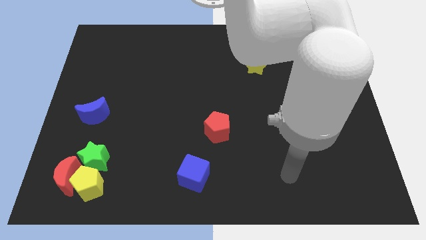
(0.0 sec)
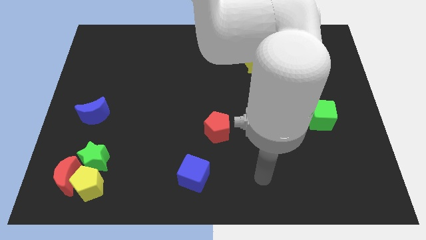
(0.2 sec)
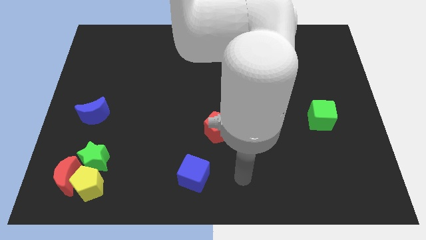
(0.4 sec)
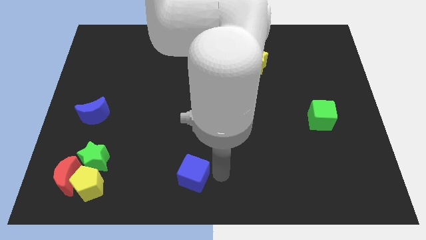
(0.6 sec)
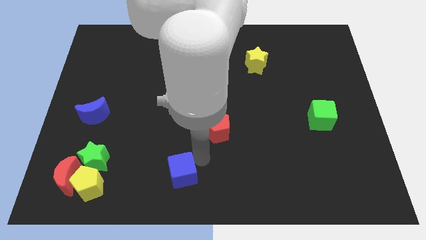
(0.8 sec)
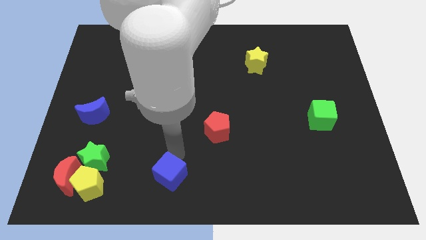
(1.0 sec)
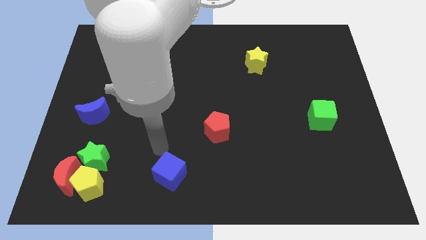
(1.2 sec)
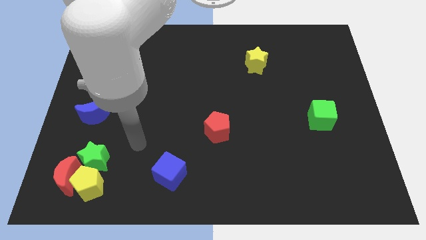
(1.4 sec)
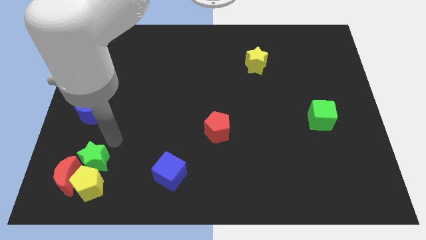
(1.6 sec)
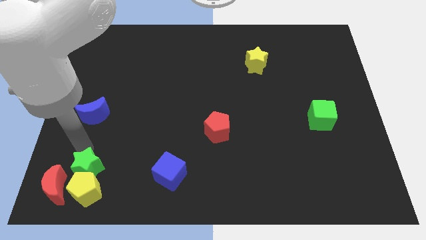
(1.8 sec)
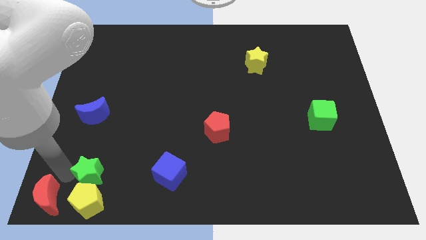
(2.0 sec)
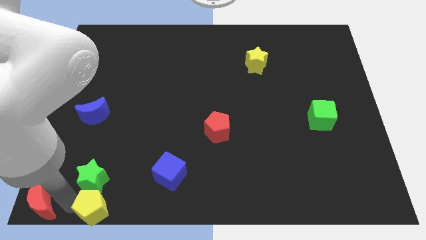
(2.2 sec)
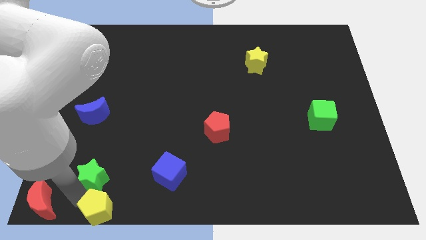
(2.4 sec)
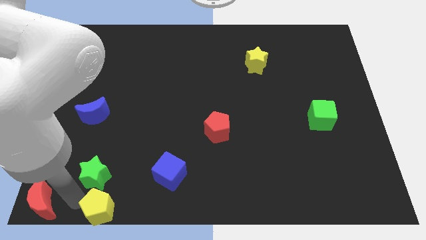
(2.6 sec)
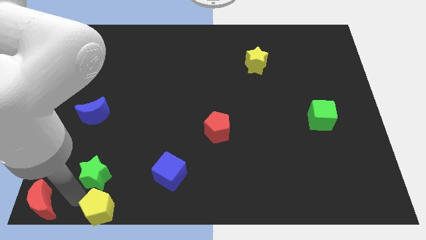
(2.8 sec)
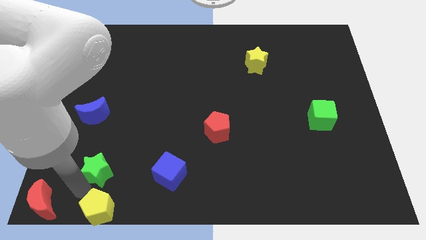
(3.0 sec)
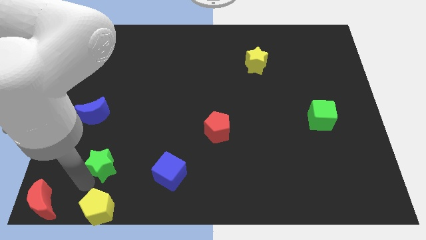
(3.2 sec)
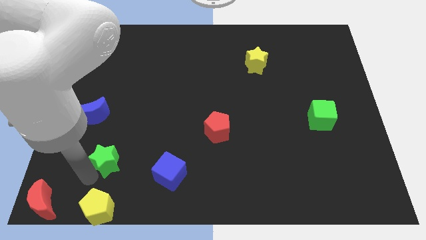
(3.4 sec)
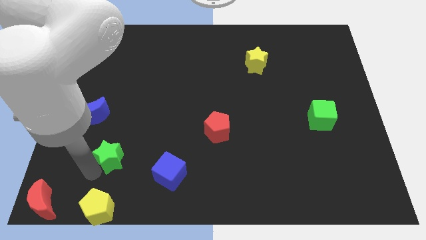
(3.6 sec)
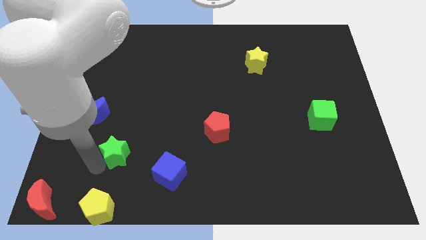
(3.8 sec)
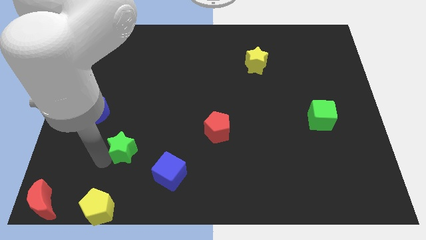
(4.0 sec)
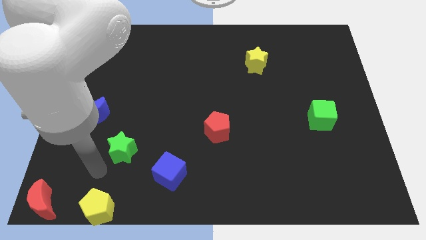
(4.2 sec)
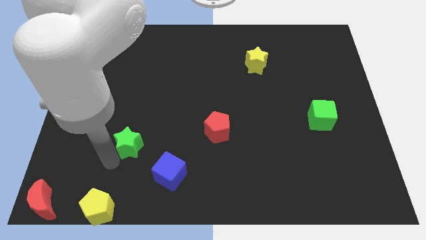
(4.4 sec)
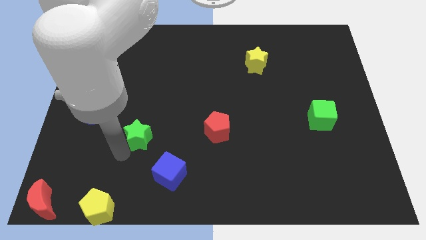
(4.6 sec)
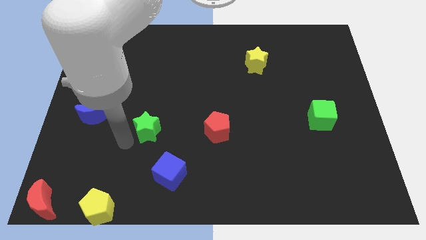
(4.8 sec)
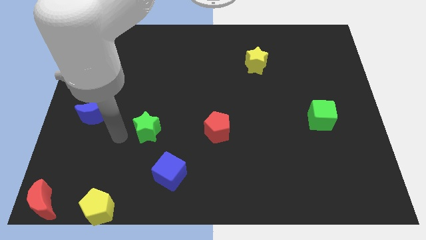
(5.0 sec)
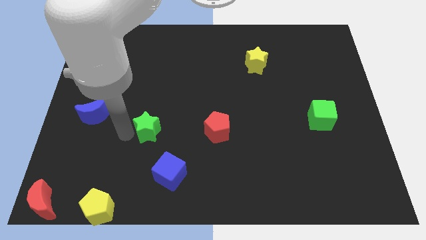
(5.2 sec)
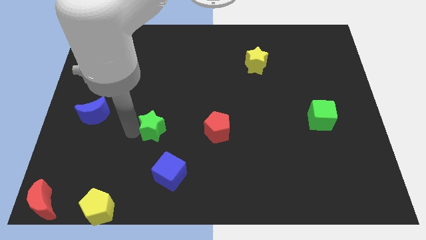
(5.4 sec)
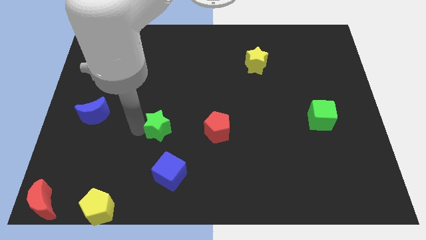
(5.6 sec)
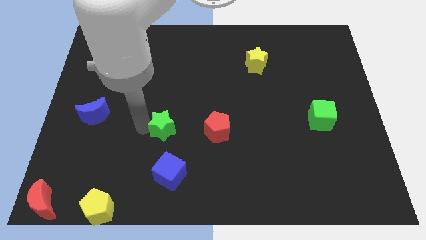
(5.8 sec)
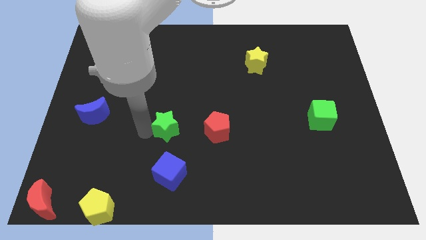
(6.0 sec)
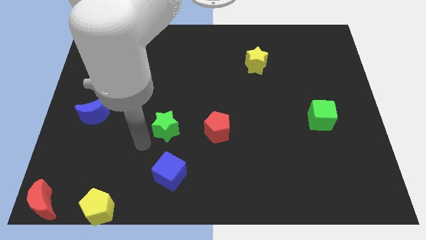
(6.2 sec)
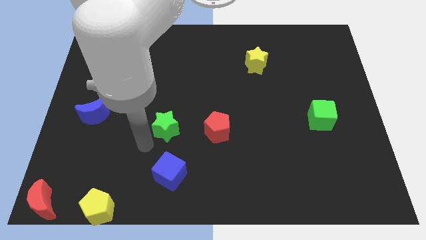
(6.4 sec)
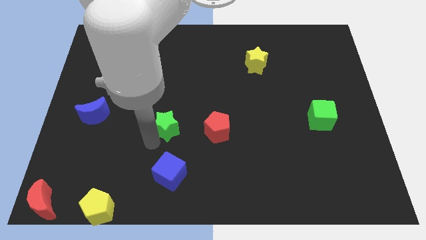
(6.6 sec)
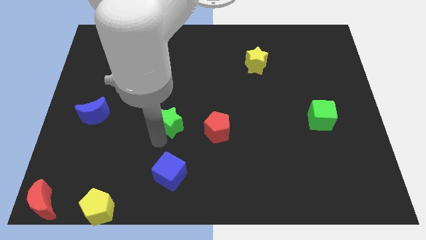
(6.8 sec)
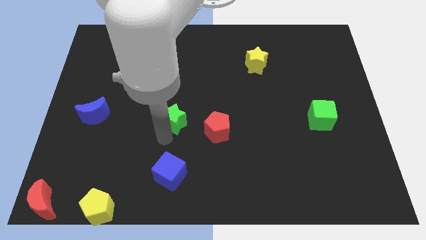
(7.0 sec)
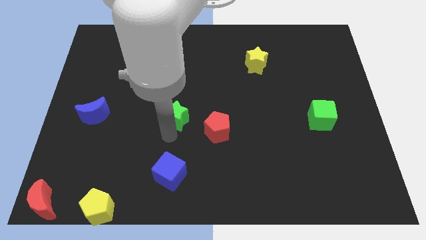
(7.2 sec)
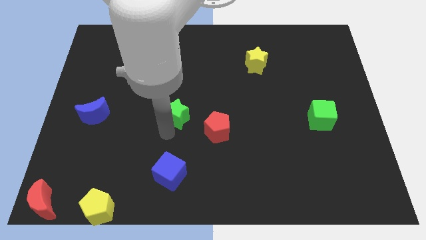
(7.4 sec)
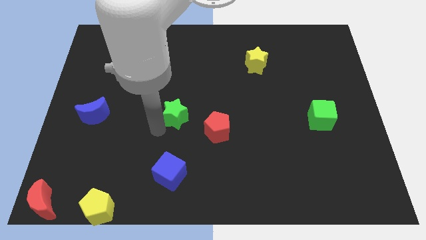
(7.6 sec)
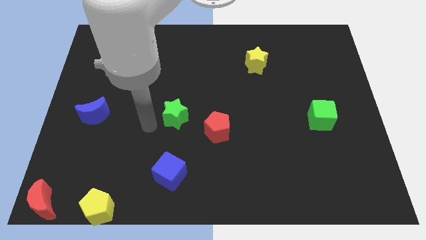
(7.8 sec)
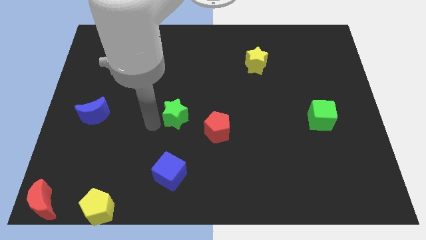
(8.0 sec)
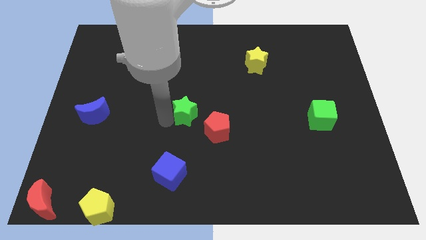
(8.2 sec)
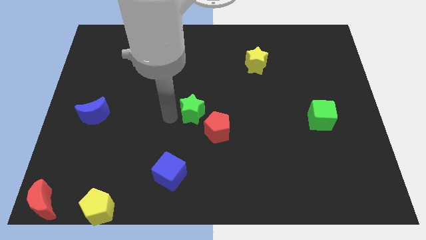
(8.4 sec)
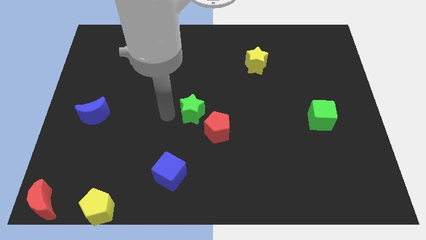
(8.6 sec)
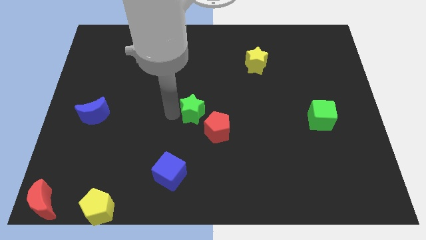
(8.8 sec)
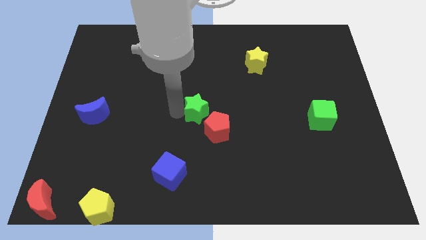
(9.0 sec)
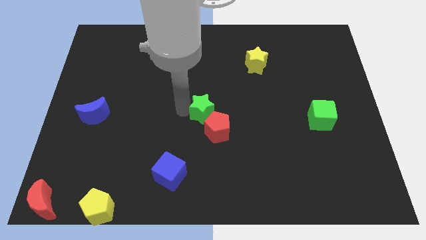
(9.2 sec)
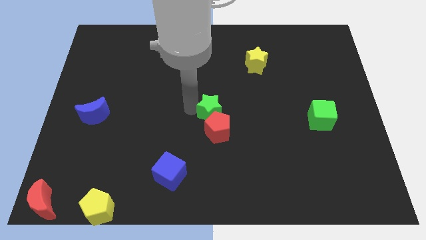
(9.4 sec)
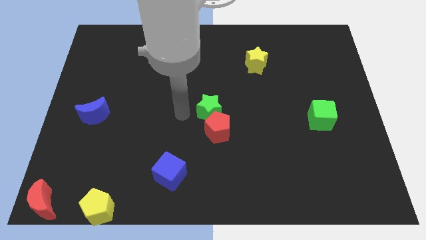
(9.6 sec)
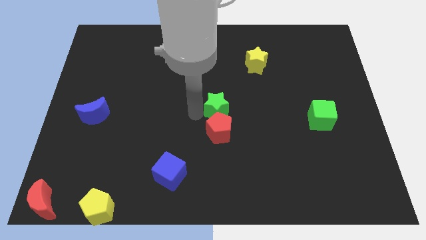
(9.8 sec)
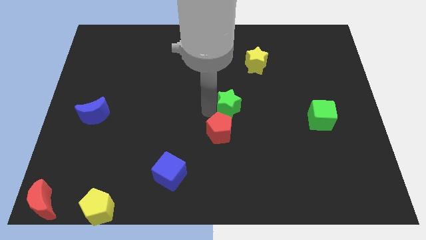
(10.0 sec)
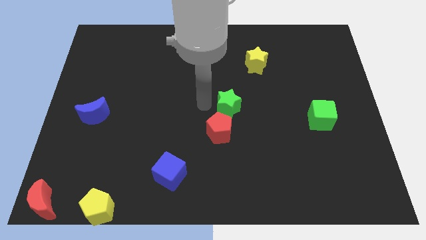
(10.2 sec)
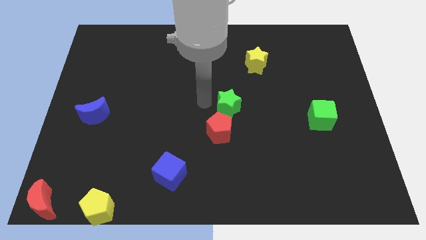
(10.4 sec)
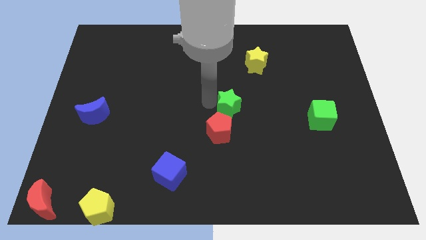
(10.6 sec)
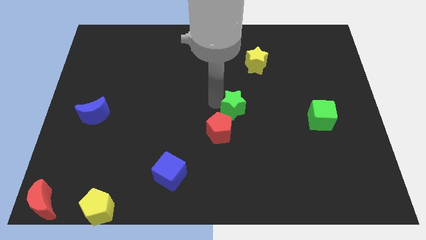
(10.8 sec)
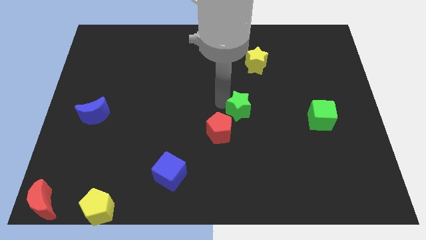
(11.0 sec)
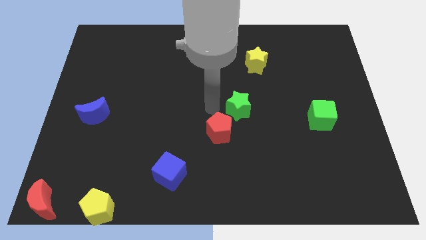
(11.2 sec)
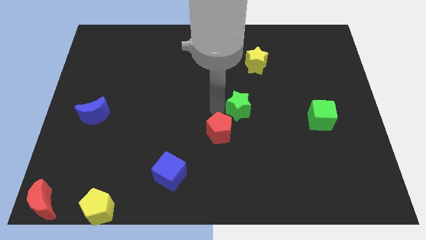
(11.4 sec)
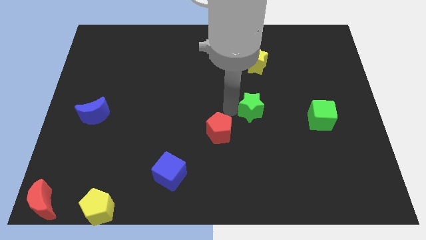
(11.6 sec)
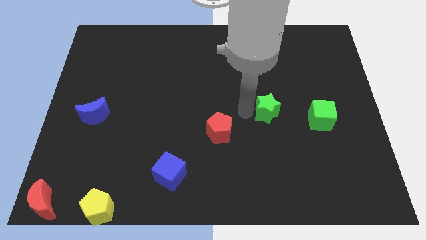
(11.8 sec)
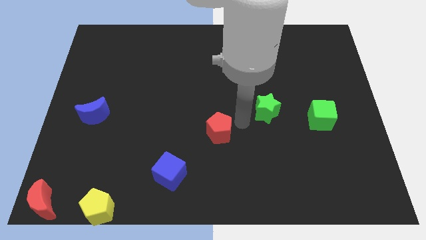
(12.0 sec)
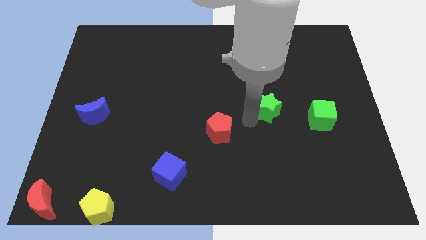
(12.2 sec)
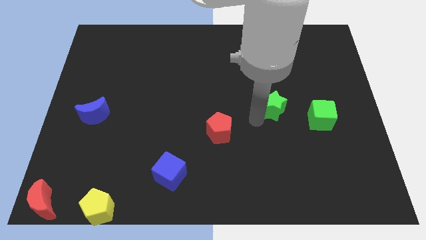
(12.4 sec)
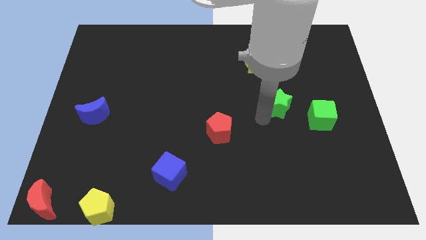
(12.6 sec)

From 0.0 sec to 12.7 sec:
slide the green star to the top left side of the green cube

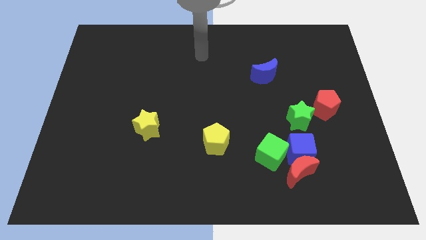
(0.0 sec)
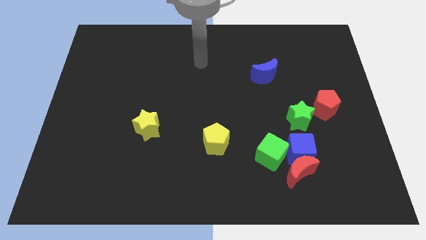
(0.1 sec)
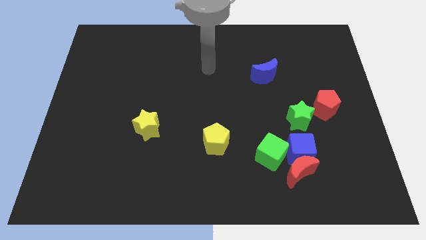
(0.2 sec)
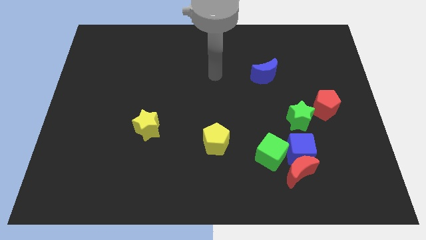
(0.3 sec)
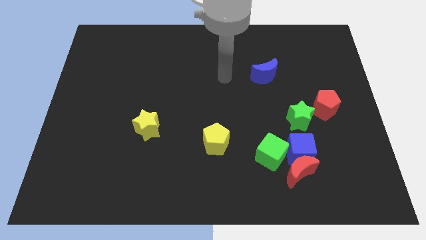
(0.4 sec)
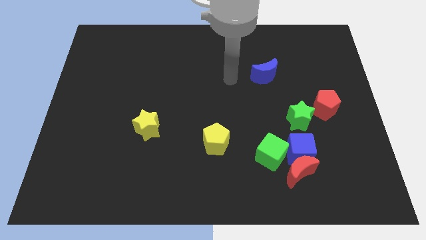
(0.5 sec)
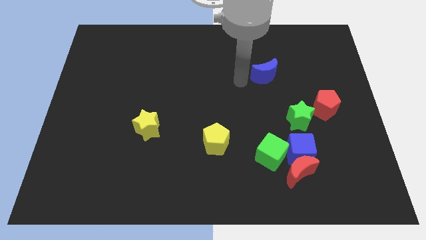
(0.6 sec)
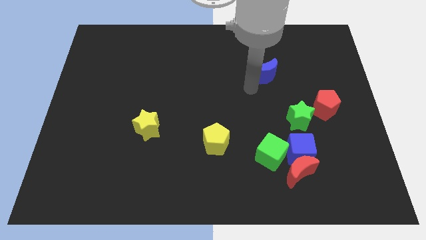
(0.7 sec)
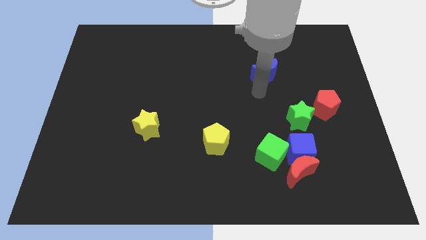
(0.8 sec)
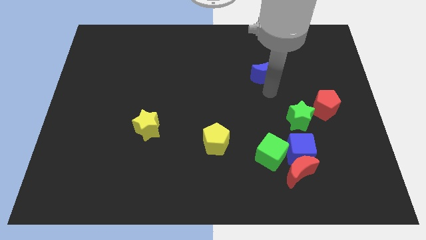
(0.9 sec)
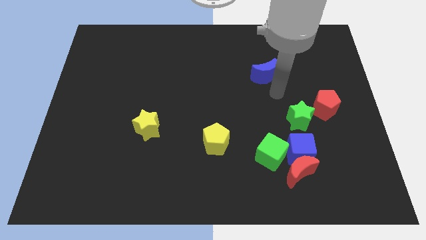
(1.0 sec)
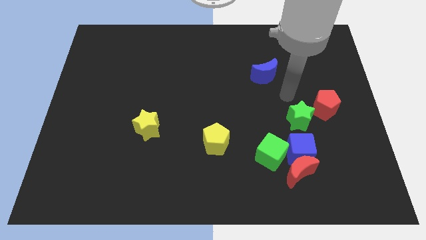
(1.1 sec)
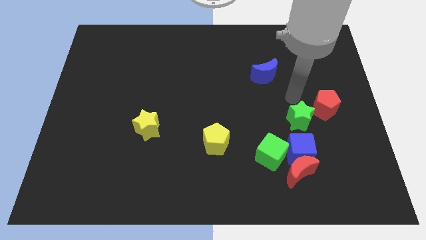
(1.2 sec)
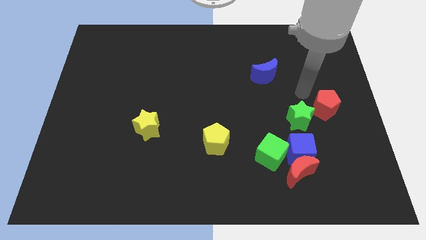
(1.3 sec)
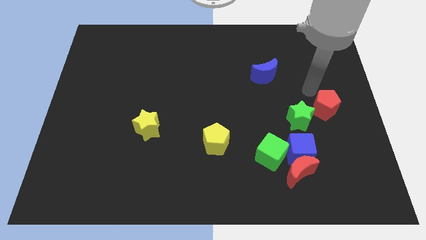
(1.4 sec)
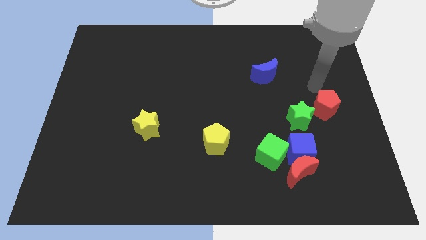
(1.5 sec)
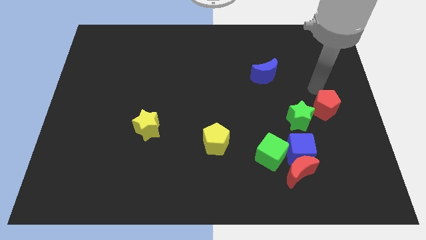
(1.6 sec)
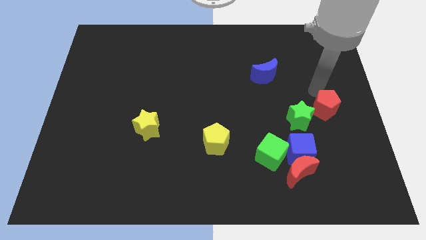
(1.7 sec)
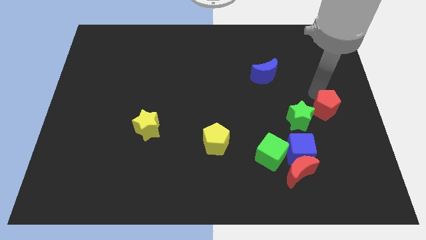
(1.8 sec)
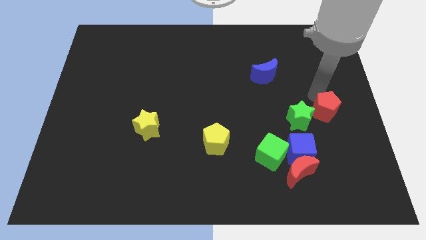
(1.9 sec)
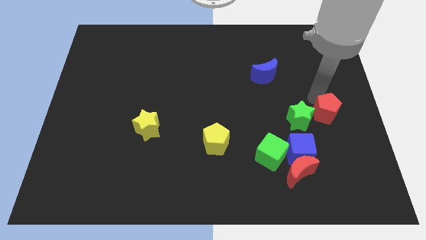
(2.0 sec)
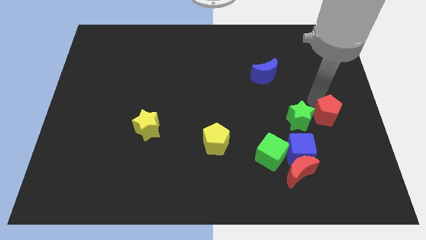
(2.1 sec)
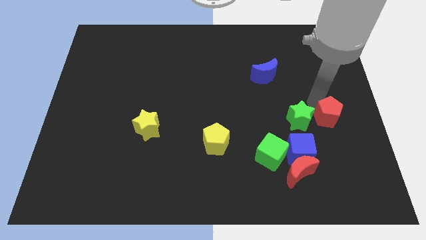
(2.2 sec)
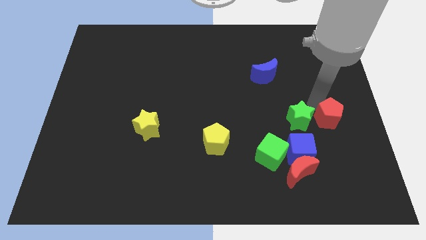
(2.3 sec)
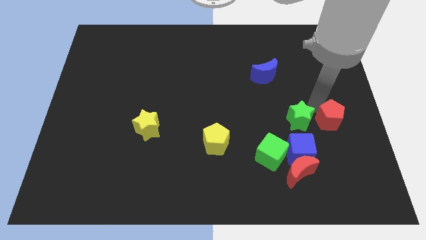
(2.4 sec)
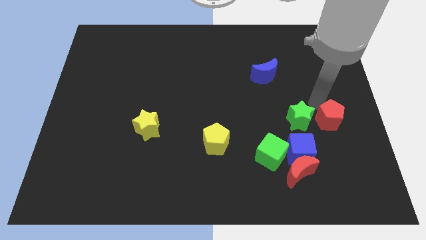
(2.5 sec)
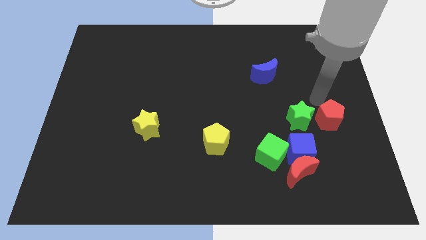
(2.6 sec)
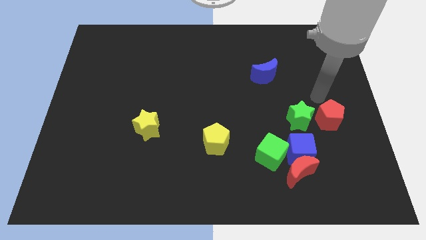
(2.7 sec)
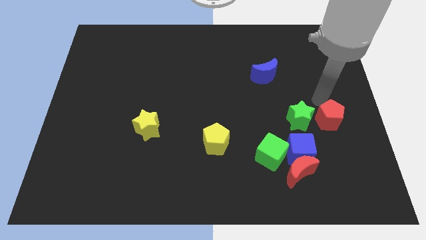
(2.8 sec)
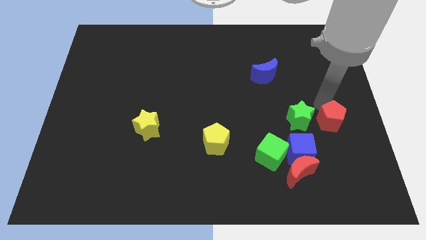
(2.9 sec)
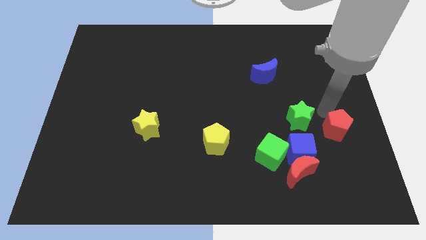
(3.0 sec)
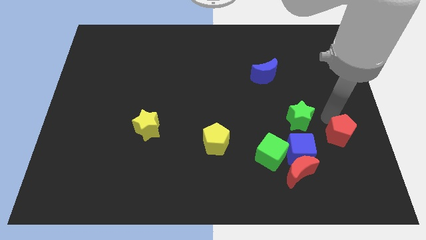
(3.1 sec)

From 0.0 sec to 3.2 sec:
slide the red pentagon to the right side of the blue cube
